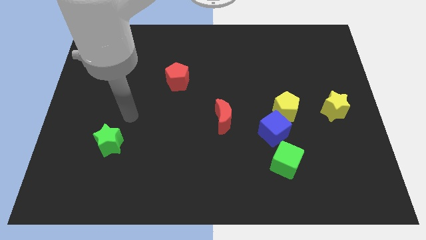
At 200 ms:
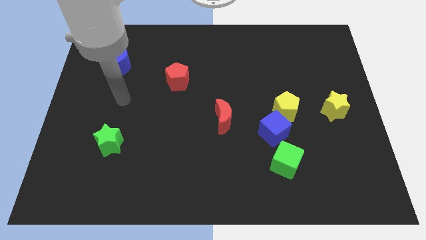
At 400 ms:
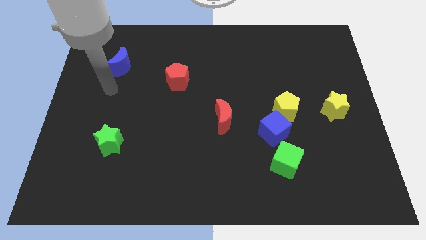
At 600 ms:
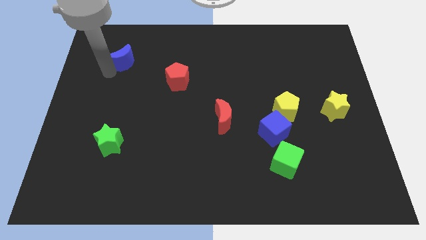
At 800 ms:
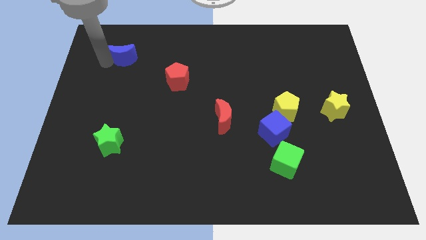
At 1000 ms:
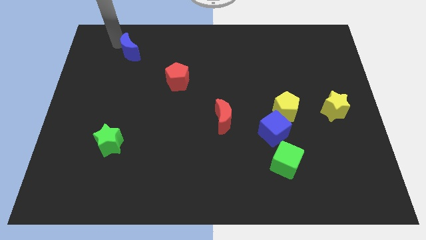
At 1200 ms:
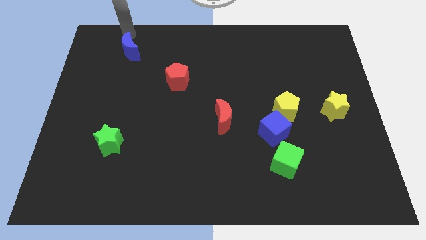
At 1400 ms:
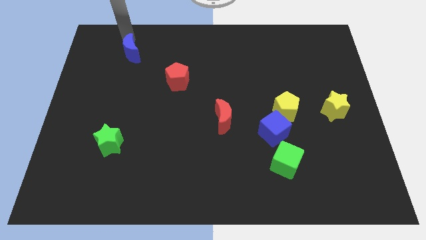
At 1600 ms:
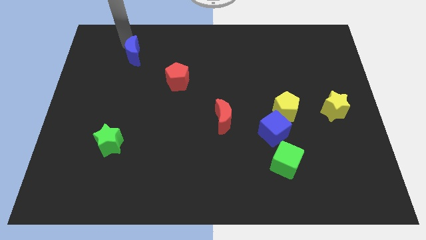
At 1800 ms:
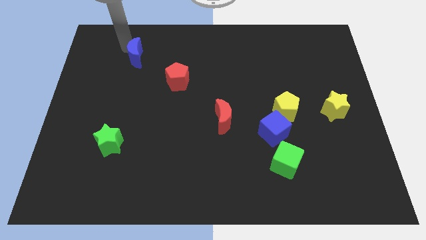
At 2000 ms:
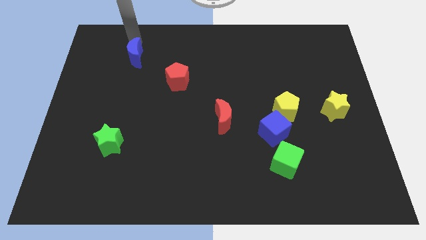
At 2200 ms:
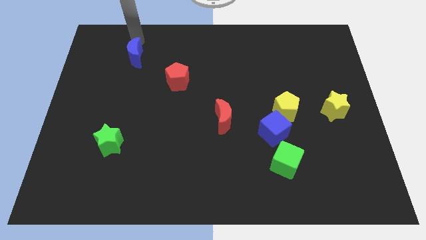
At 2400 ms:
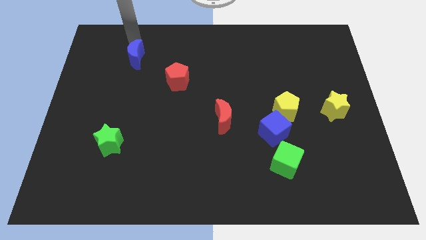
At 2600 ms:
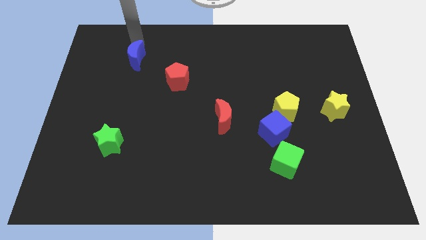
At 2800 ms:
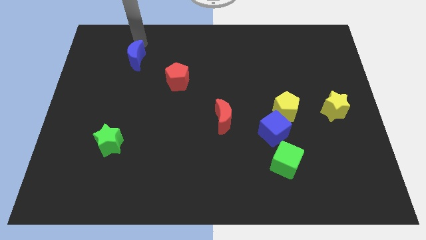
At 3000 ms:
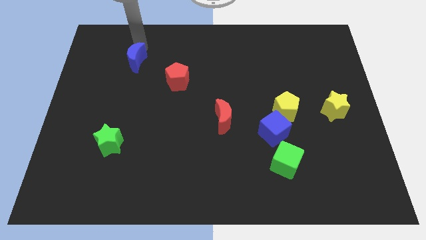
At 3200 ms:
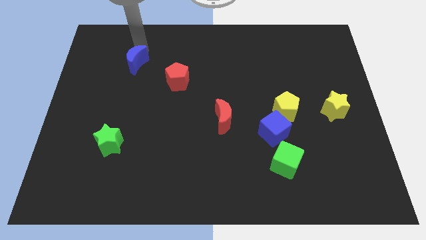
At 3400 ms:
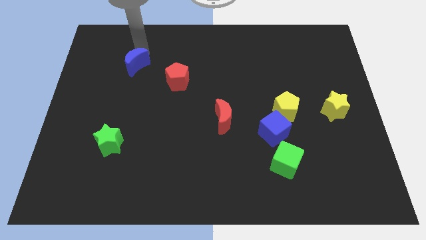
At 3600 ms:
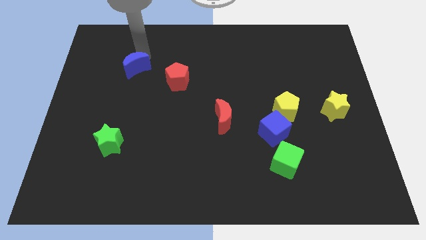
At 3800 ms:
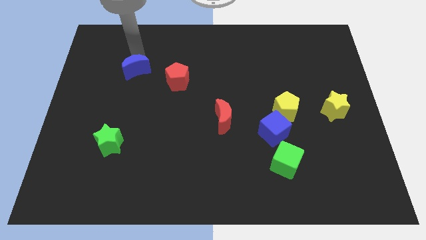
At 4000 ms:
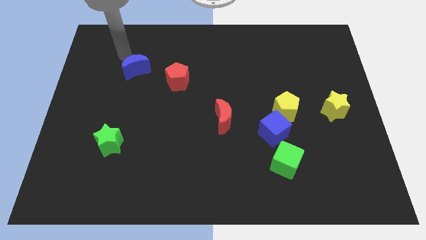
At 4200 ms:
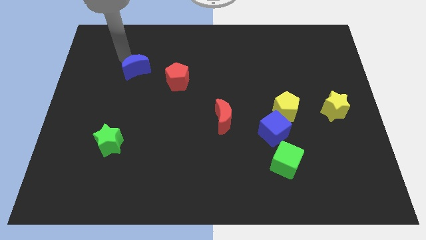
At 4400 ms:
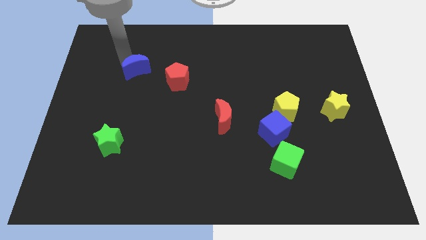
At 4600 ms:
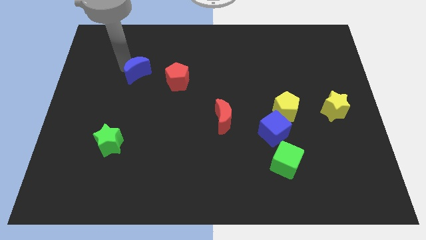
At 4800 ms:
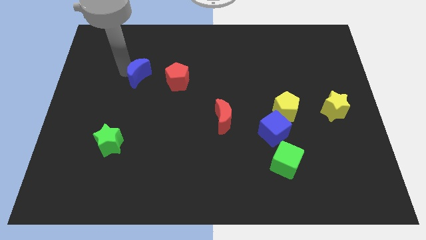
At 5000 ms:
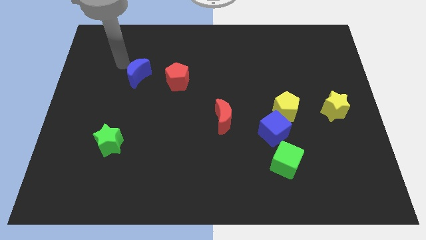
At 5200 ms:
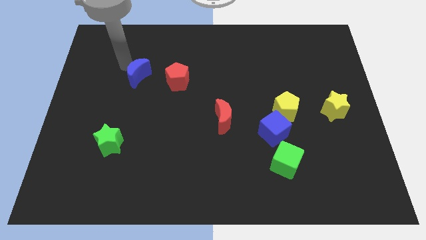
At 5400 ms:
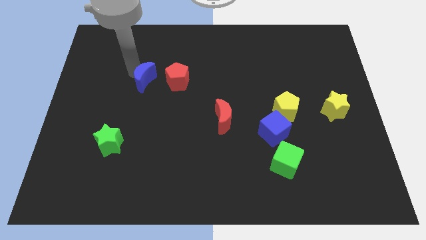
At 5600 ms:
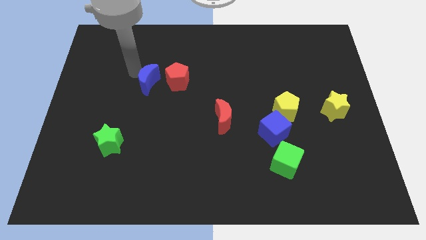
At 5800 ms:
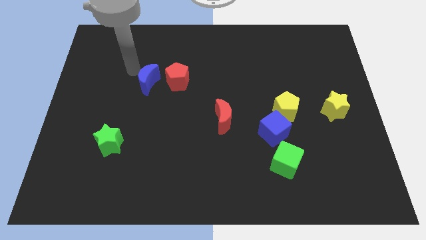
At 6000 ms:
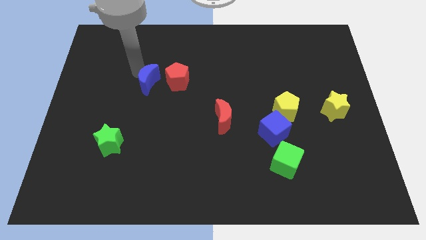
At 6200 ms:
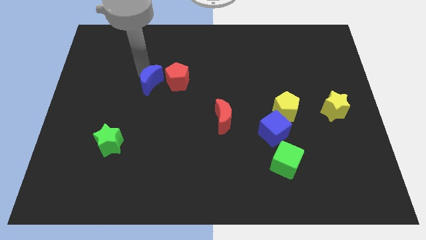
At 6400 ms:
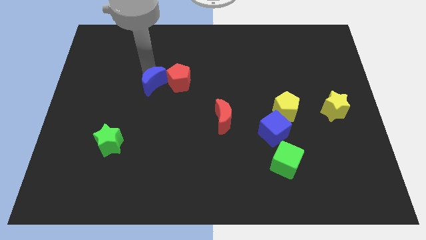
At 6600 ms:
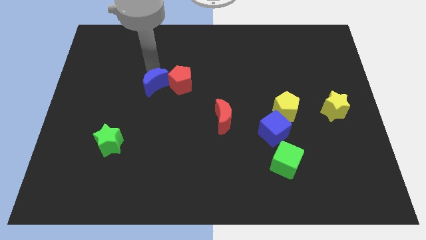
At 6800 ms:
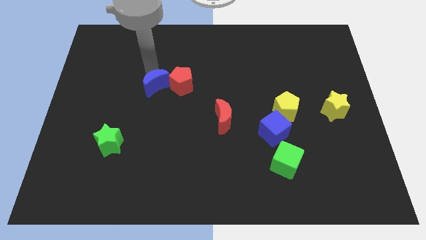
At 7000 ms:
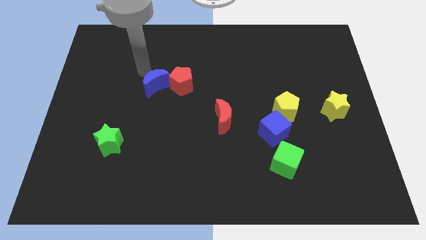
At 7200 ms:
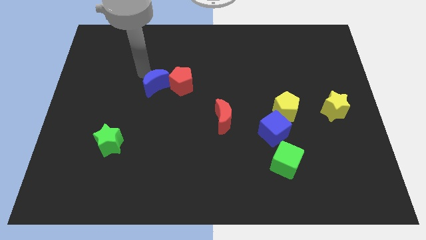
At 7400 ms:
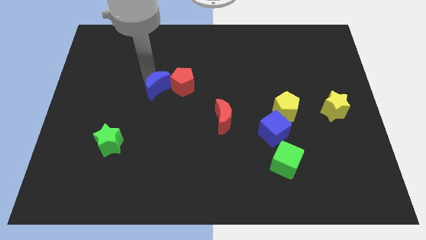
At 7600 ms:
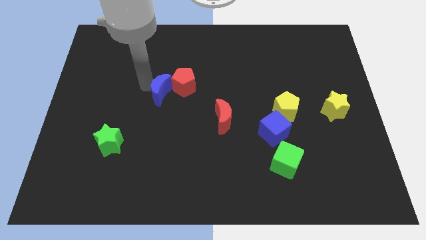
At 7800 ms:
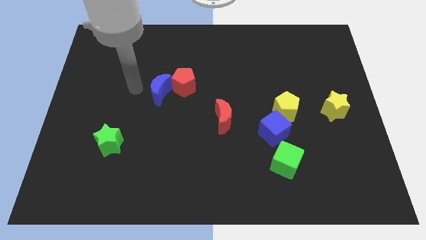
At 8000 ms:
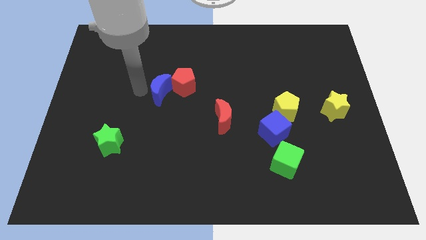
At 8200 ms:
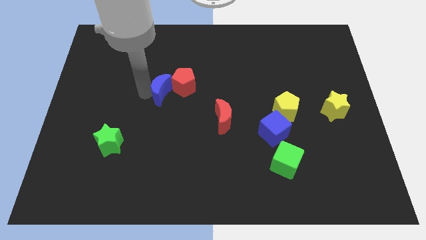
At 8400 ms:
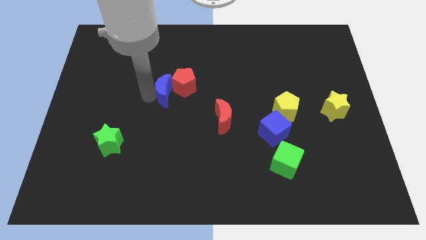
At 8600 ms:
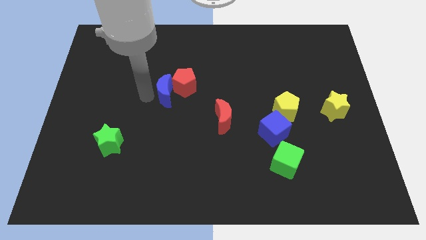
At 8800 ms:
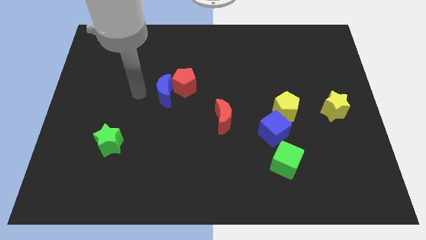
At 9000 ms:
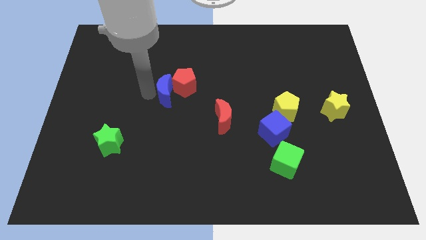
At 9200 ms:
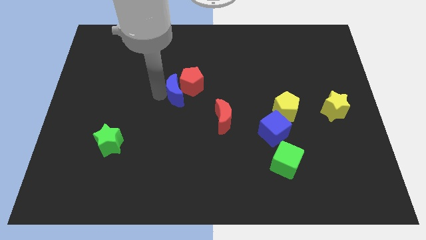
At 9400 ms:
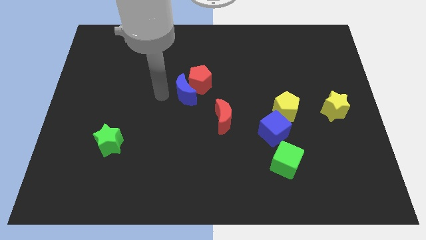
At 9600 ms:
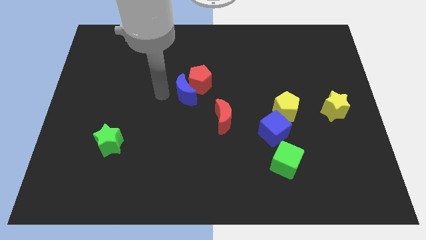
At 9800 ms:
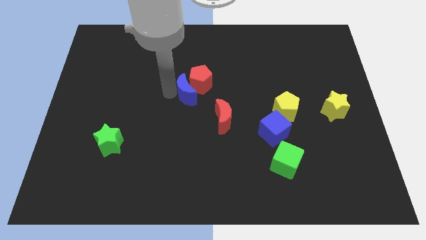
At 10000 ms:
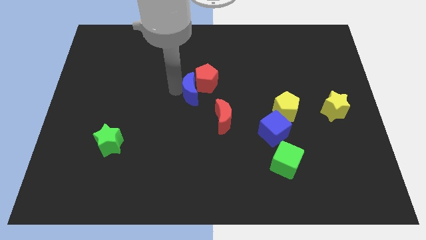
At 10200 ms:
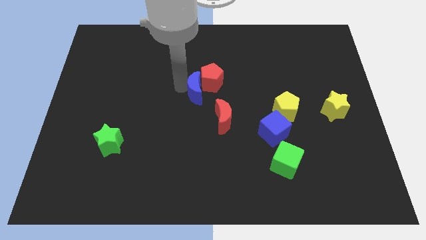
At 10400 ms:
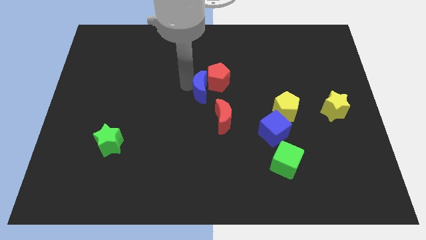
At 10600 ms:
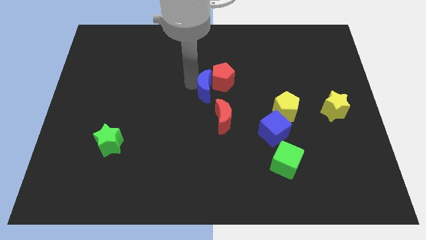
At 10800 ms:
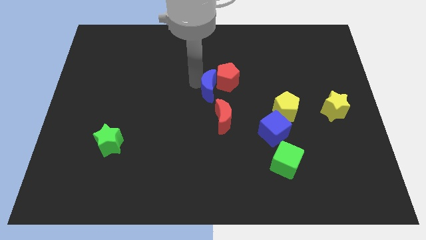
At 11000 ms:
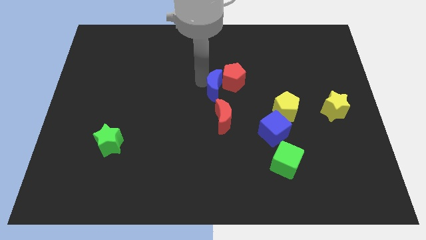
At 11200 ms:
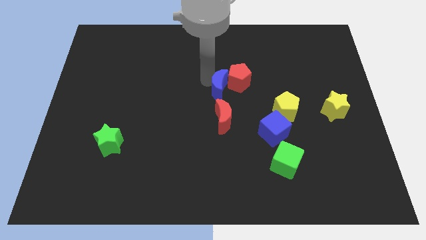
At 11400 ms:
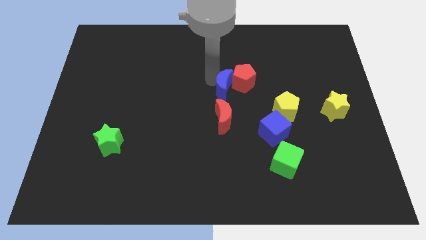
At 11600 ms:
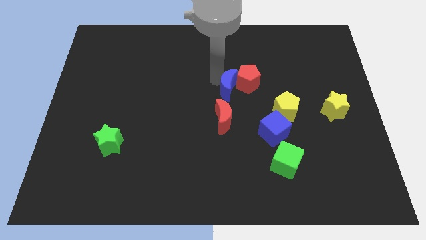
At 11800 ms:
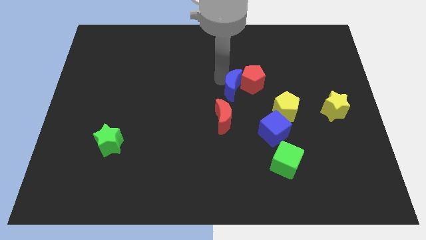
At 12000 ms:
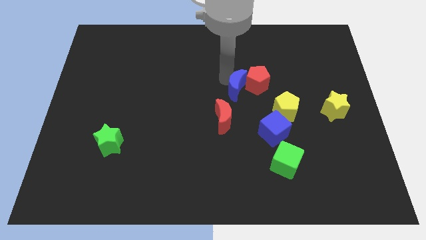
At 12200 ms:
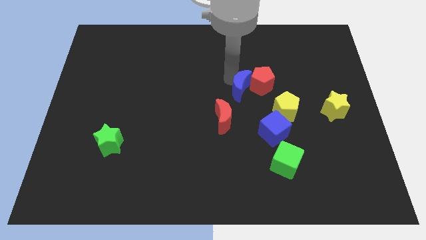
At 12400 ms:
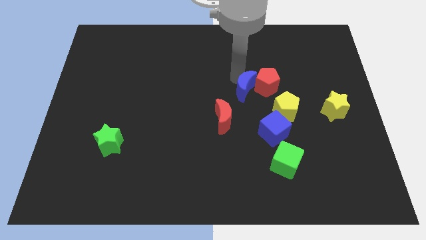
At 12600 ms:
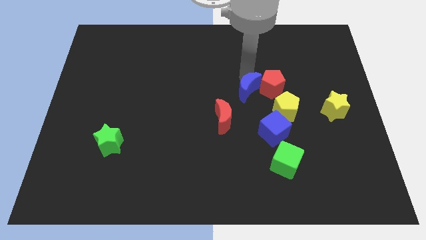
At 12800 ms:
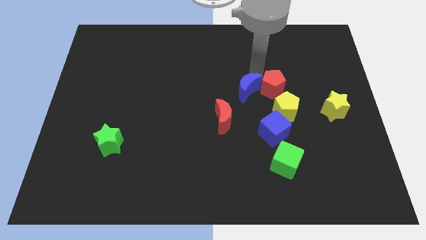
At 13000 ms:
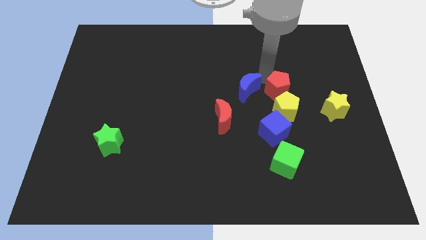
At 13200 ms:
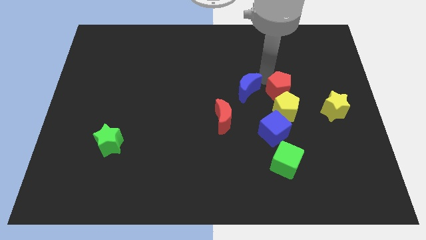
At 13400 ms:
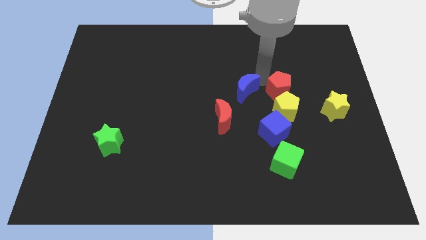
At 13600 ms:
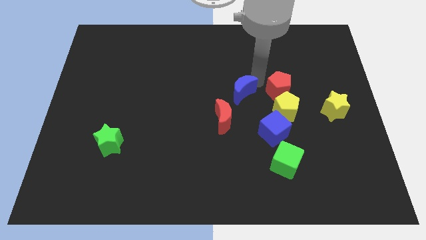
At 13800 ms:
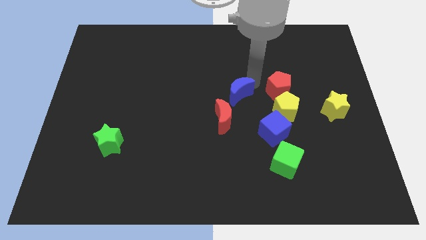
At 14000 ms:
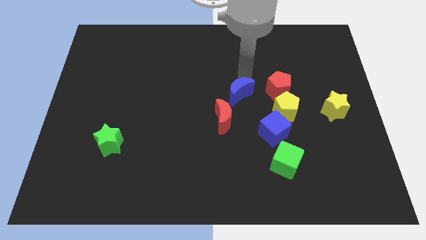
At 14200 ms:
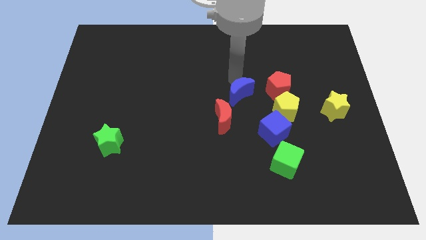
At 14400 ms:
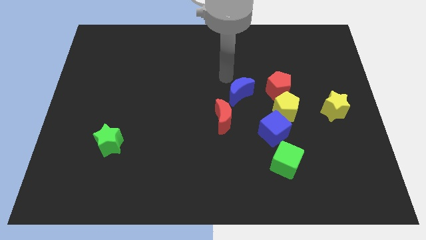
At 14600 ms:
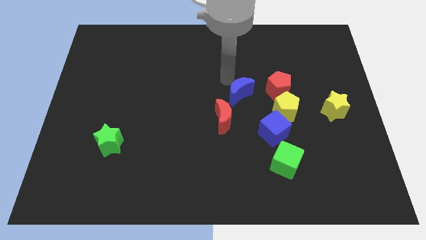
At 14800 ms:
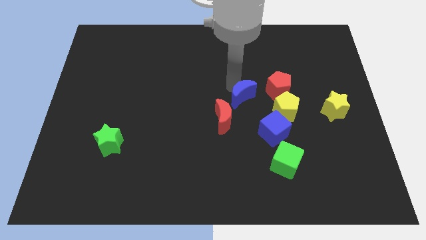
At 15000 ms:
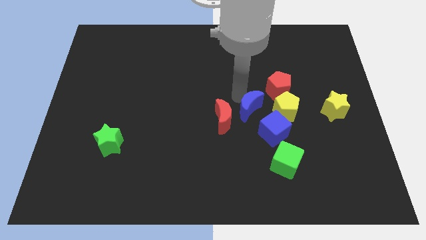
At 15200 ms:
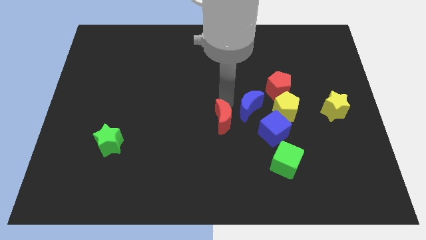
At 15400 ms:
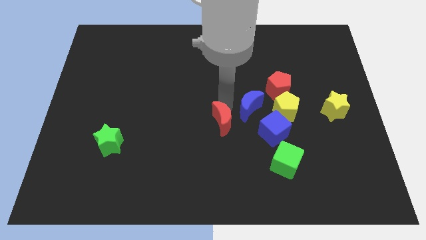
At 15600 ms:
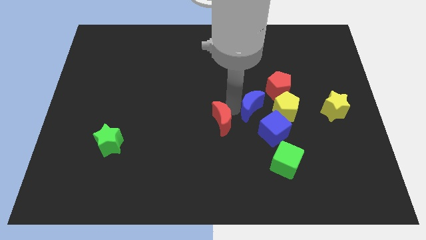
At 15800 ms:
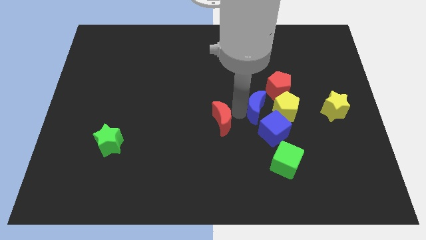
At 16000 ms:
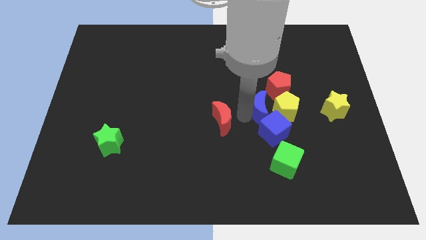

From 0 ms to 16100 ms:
put the blue moon close to the yellow pentagon
